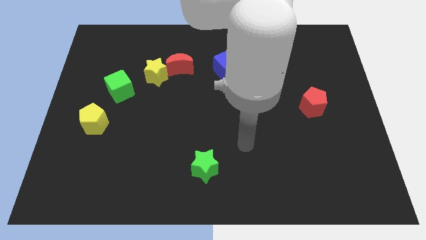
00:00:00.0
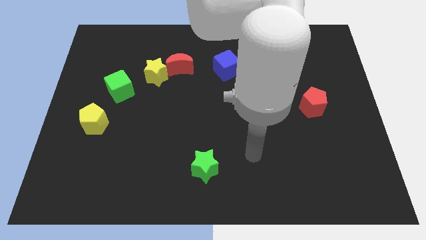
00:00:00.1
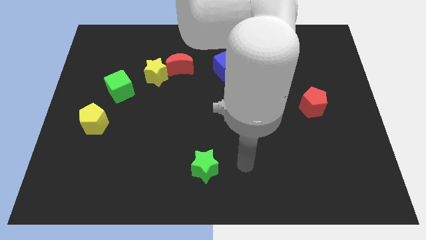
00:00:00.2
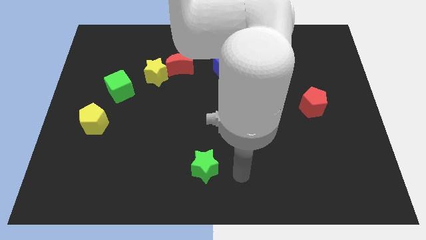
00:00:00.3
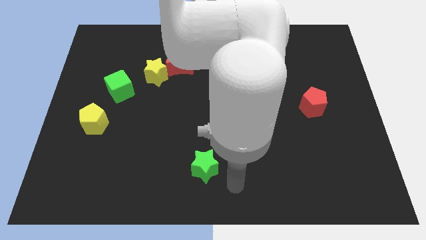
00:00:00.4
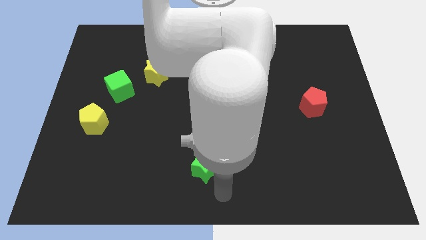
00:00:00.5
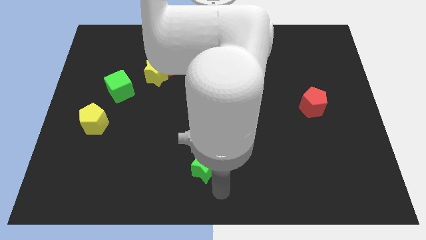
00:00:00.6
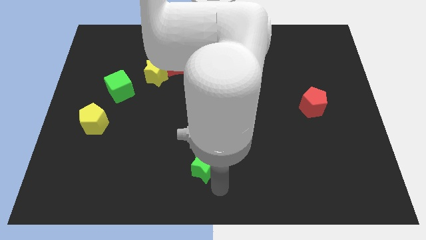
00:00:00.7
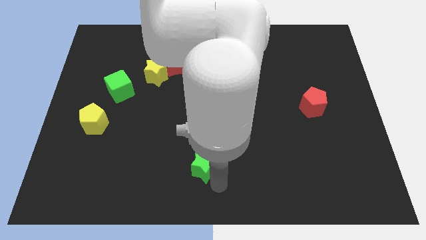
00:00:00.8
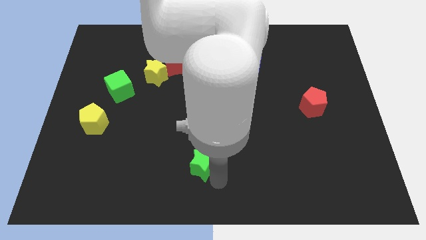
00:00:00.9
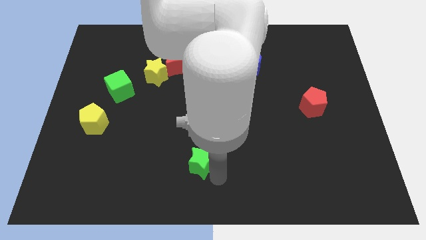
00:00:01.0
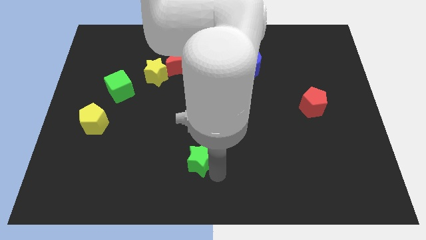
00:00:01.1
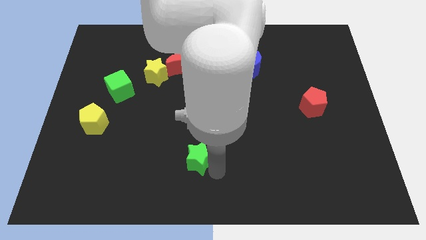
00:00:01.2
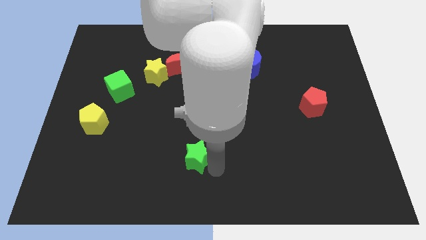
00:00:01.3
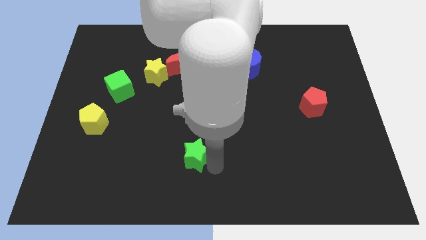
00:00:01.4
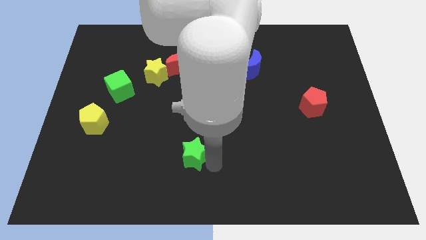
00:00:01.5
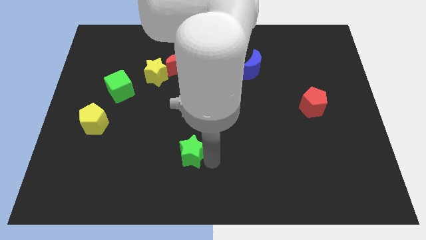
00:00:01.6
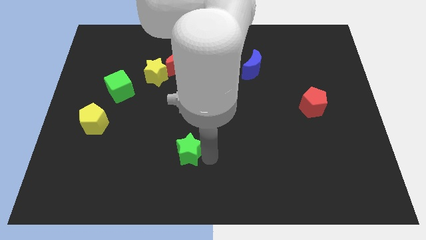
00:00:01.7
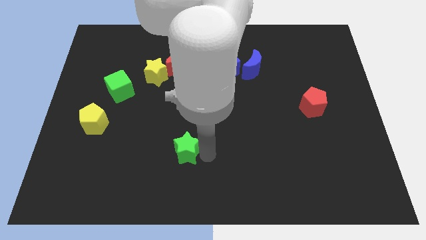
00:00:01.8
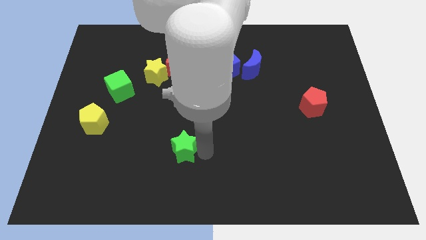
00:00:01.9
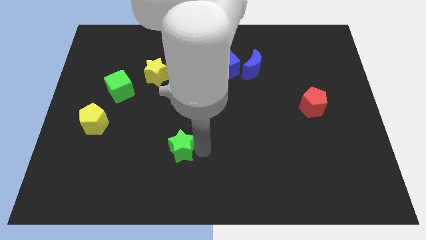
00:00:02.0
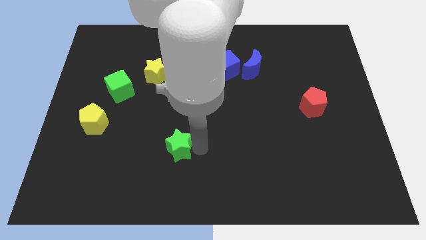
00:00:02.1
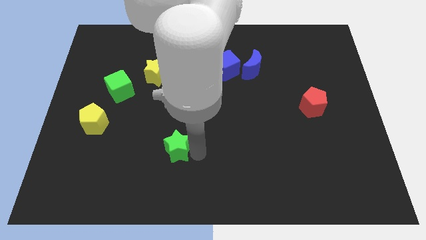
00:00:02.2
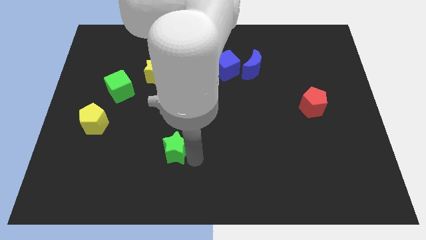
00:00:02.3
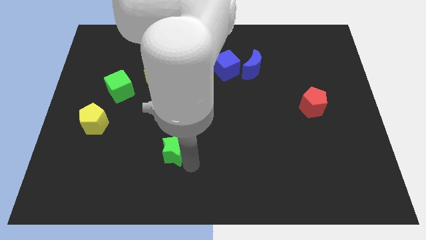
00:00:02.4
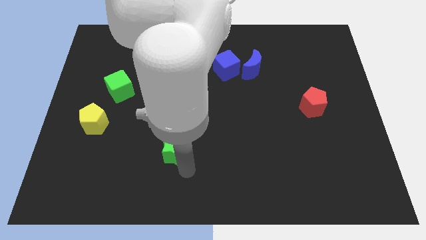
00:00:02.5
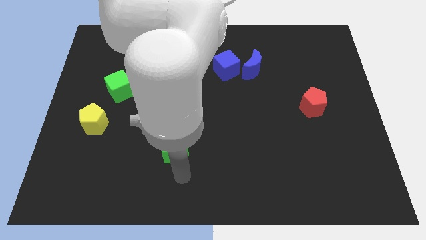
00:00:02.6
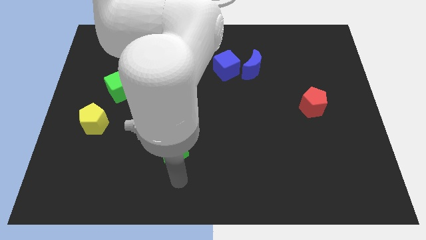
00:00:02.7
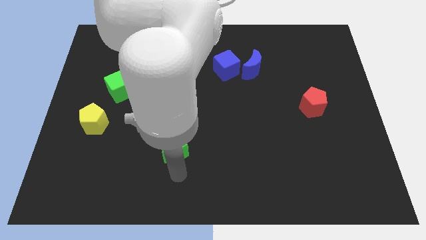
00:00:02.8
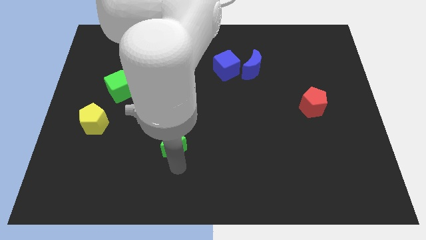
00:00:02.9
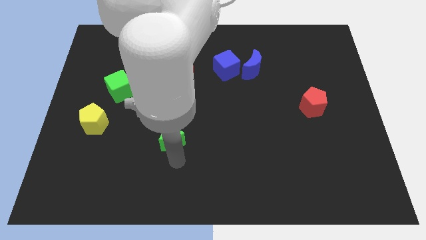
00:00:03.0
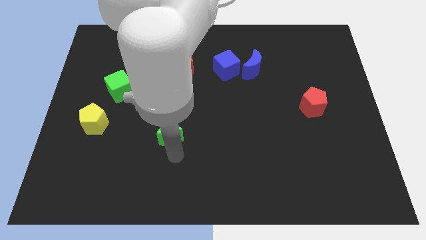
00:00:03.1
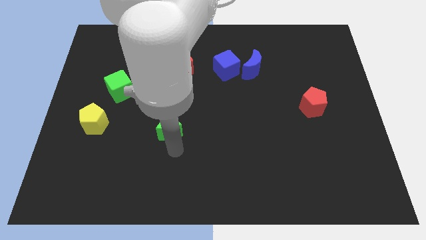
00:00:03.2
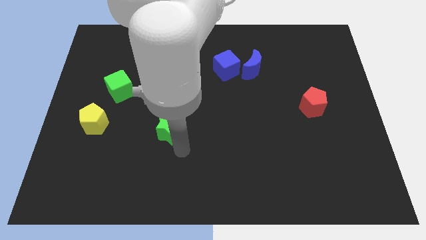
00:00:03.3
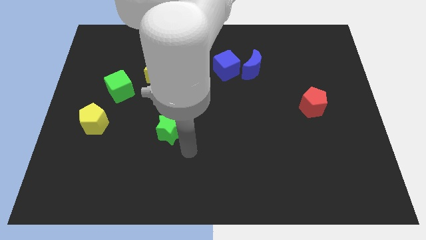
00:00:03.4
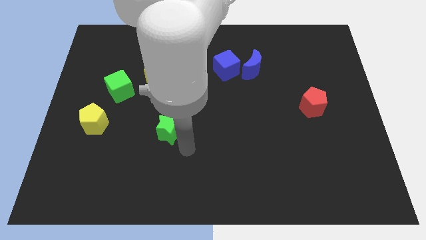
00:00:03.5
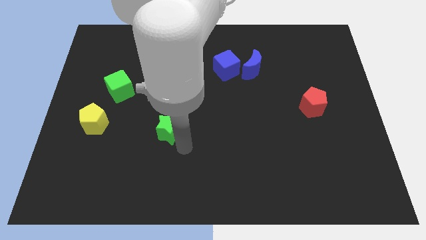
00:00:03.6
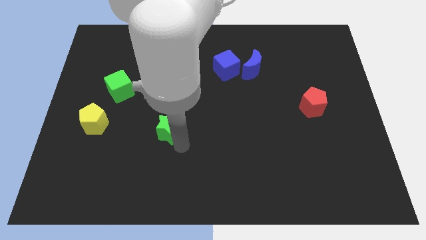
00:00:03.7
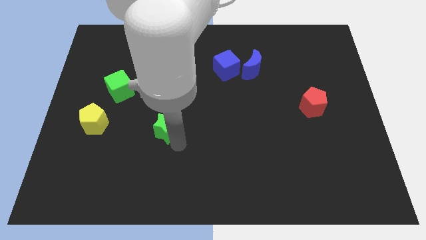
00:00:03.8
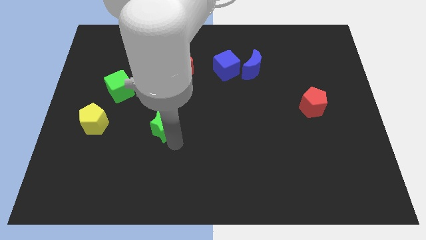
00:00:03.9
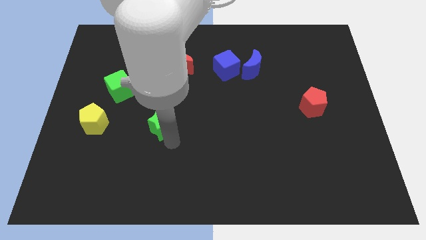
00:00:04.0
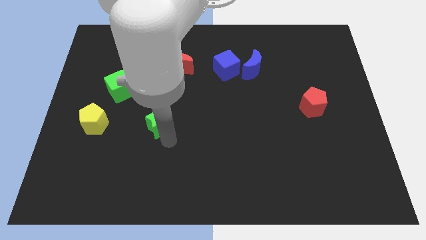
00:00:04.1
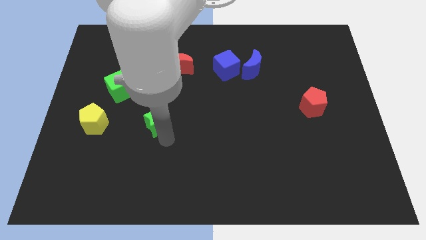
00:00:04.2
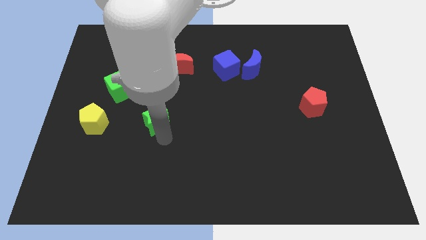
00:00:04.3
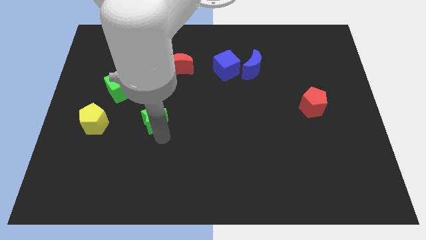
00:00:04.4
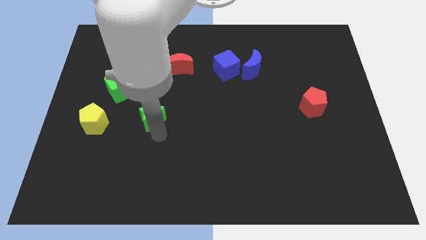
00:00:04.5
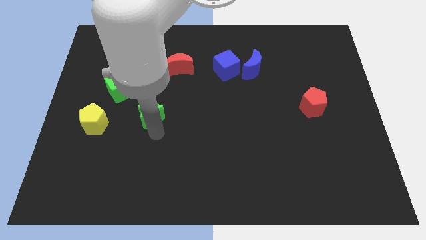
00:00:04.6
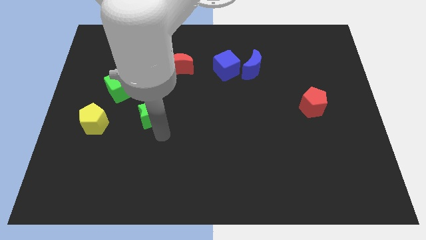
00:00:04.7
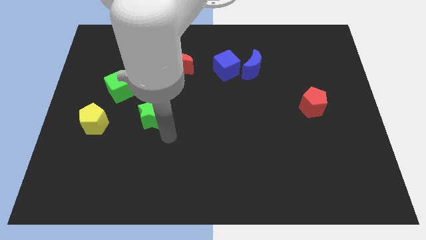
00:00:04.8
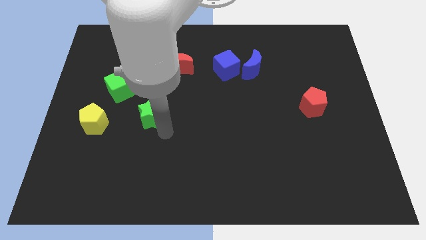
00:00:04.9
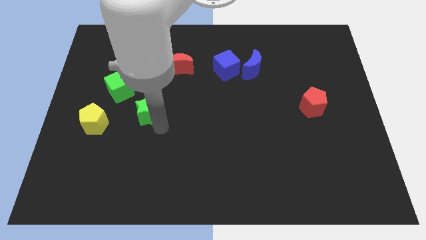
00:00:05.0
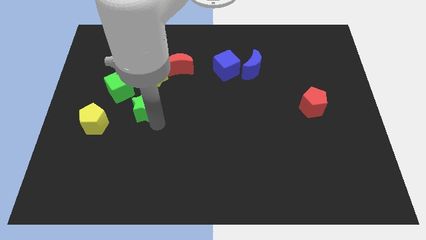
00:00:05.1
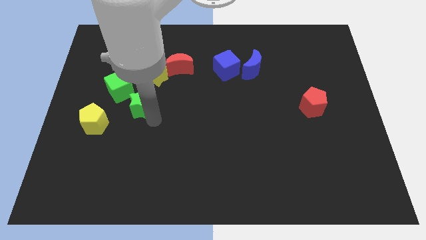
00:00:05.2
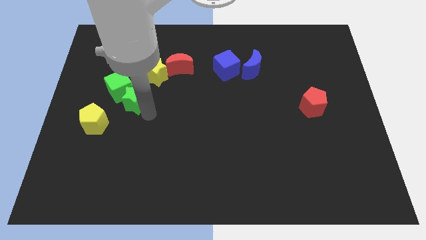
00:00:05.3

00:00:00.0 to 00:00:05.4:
slide the green star close to the green cube

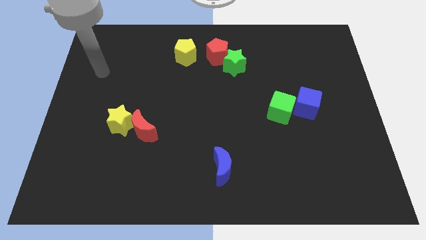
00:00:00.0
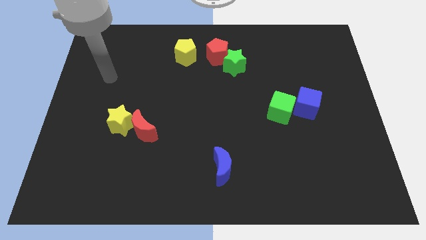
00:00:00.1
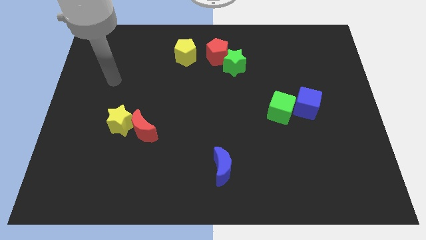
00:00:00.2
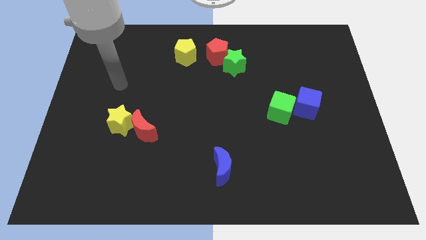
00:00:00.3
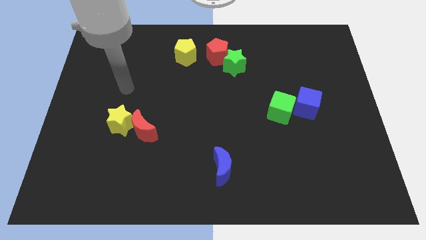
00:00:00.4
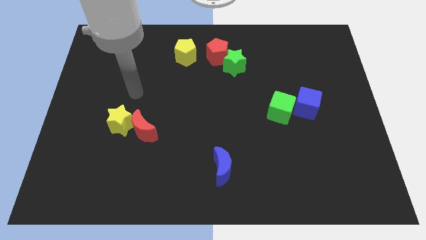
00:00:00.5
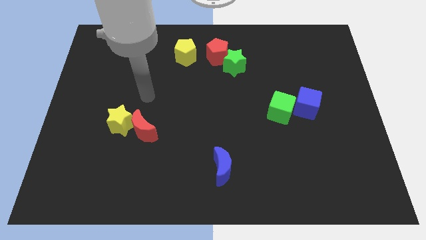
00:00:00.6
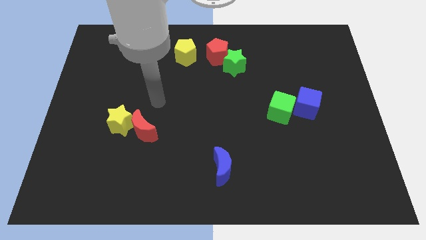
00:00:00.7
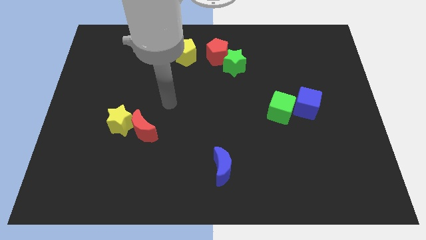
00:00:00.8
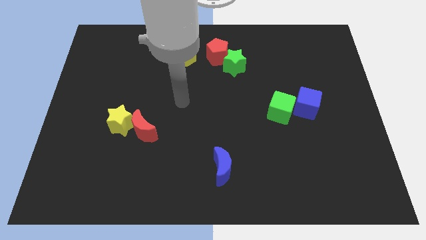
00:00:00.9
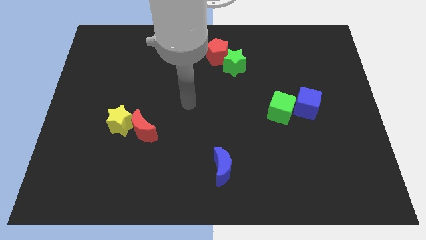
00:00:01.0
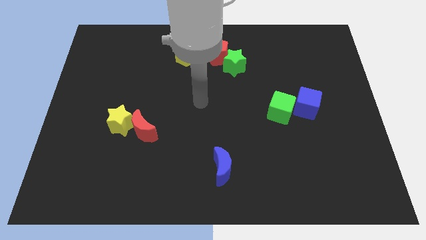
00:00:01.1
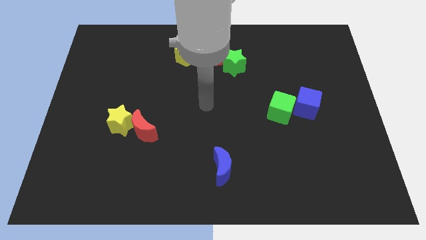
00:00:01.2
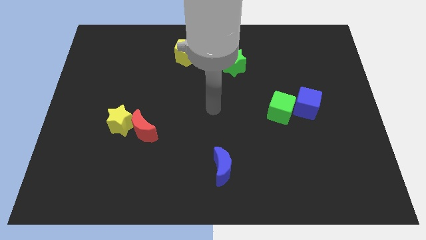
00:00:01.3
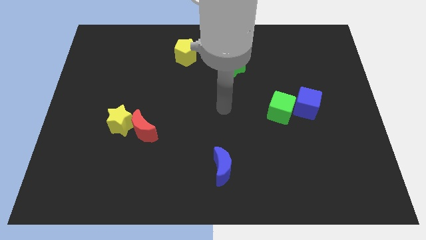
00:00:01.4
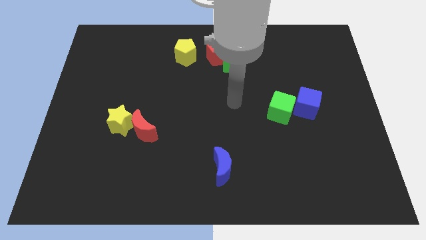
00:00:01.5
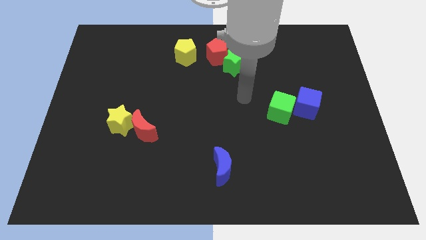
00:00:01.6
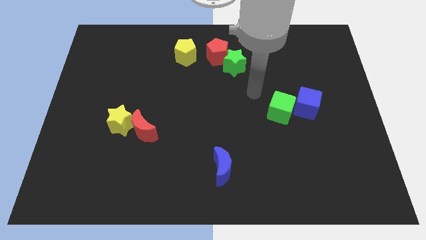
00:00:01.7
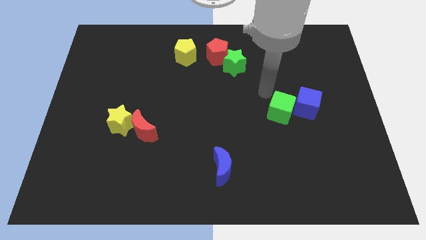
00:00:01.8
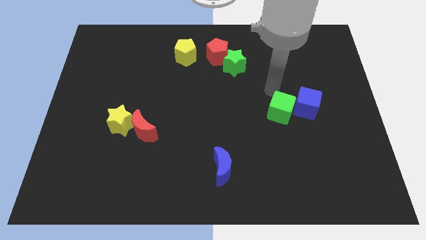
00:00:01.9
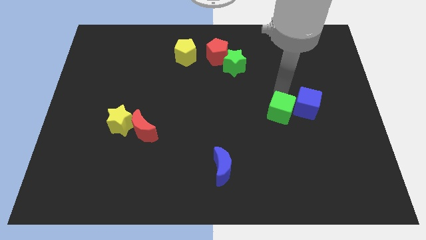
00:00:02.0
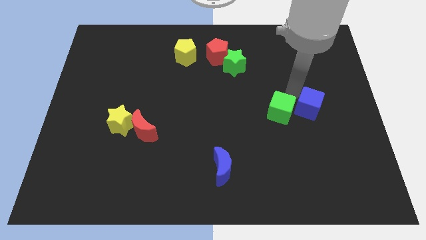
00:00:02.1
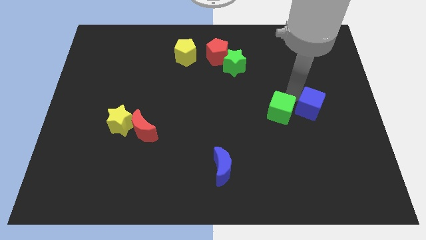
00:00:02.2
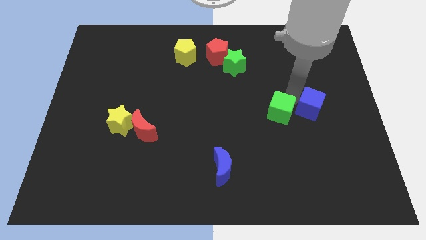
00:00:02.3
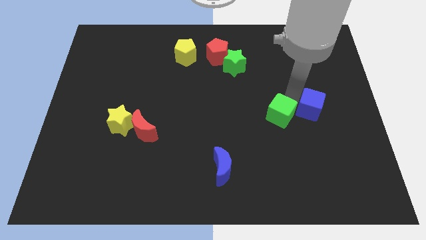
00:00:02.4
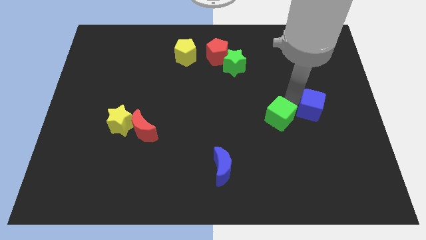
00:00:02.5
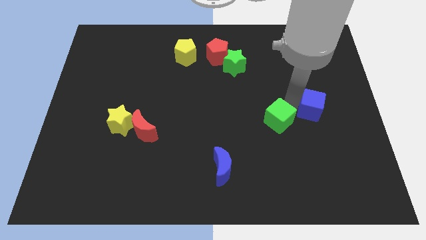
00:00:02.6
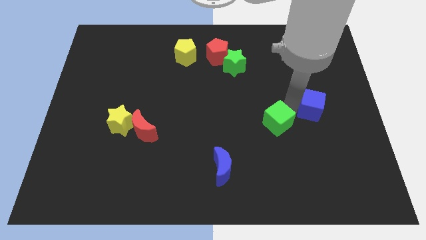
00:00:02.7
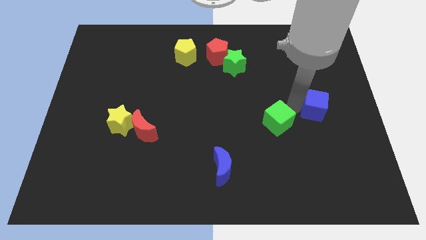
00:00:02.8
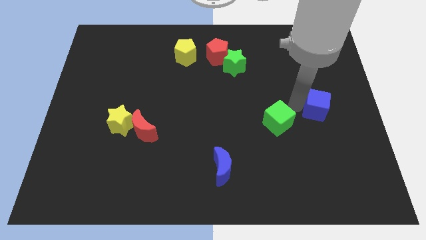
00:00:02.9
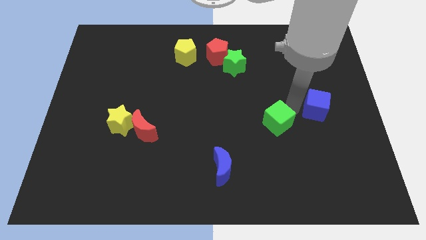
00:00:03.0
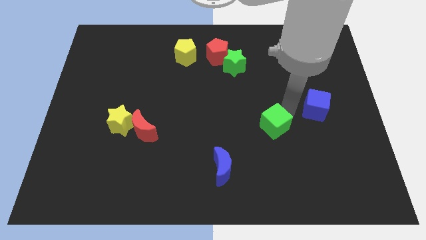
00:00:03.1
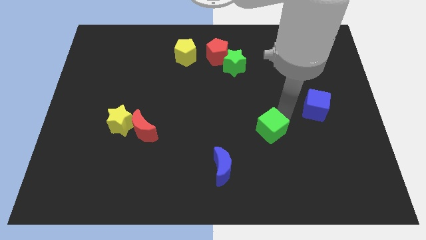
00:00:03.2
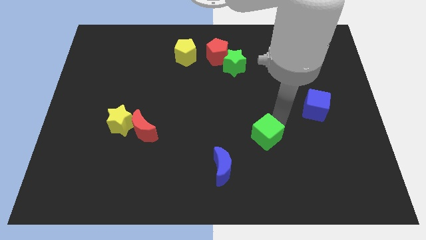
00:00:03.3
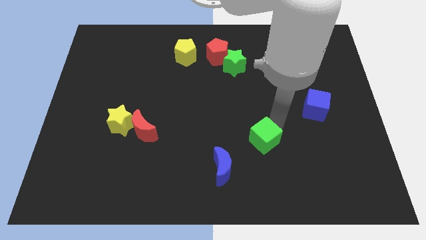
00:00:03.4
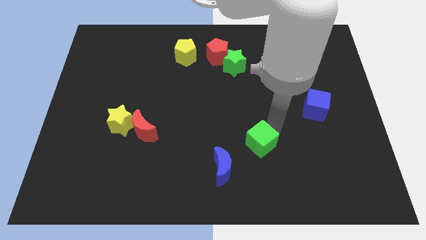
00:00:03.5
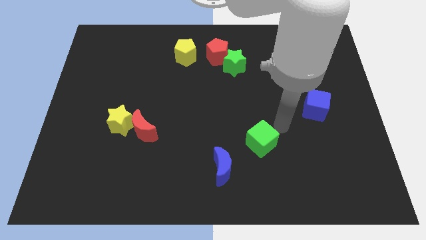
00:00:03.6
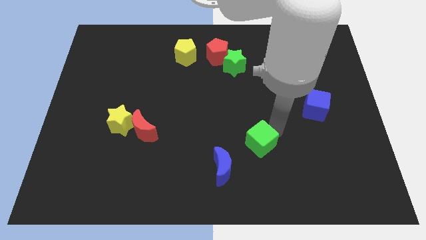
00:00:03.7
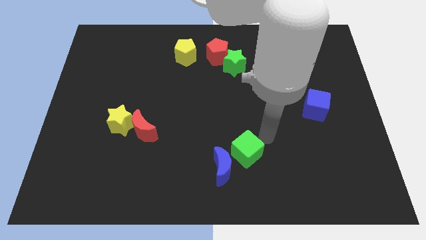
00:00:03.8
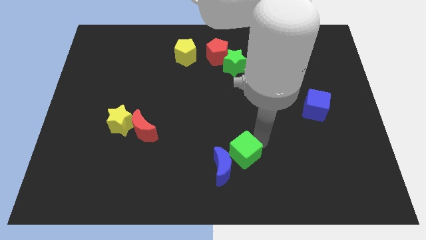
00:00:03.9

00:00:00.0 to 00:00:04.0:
slide the green cube close to the blue moon
